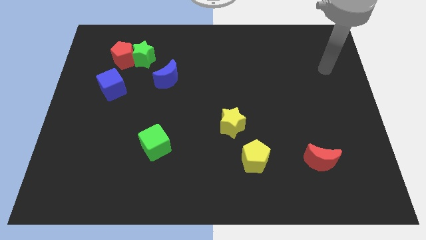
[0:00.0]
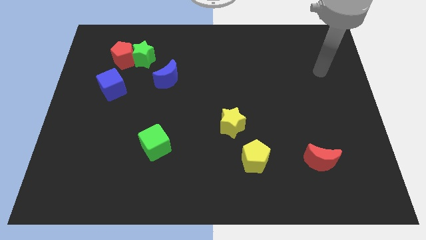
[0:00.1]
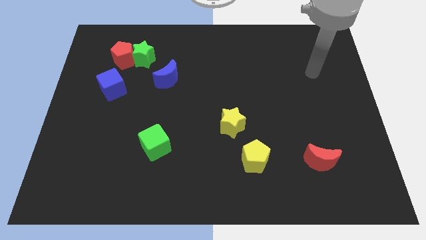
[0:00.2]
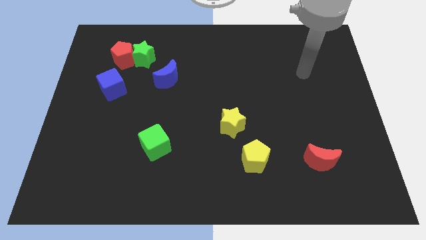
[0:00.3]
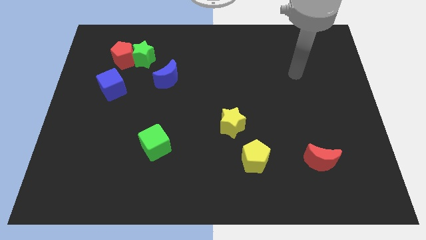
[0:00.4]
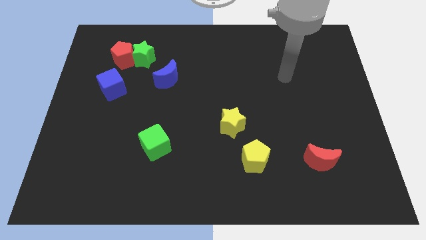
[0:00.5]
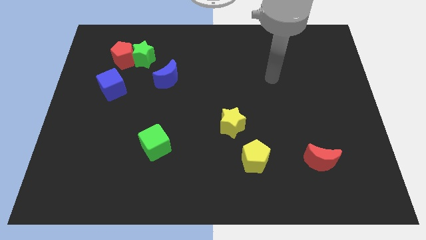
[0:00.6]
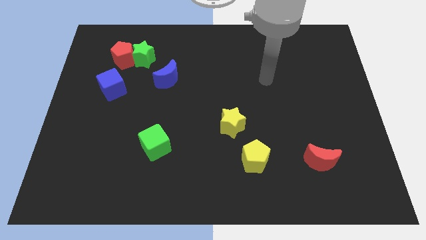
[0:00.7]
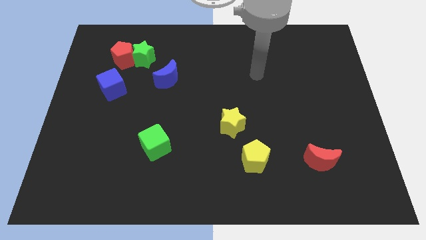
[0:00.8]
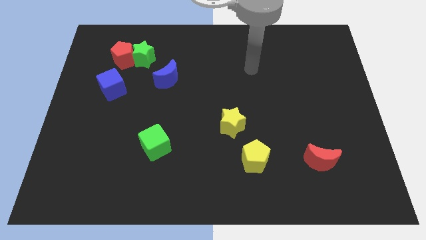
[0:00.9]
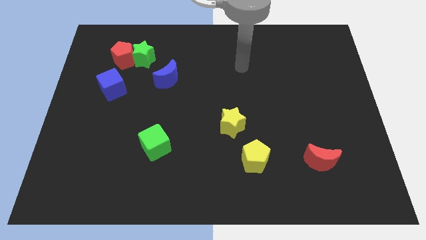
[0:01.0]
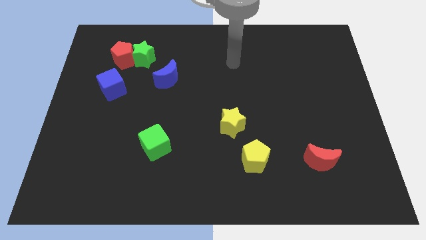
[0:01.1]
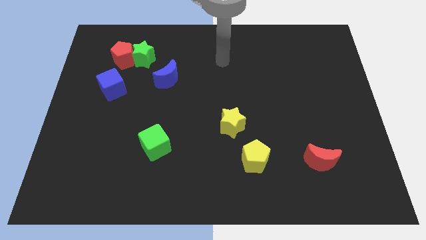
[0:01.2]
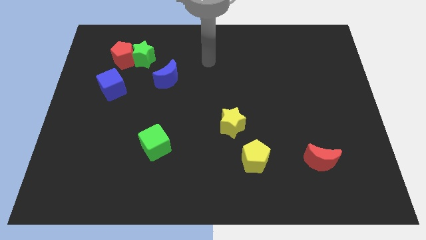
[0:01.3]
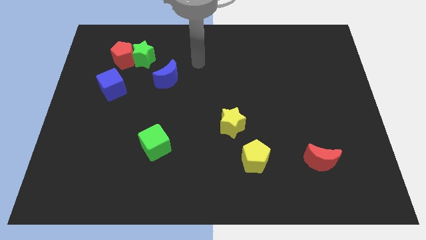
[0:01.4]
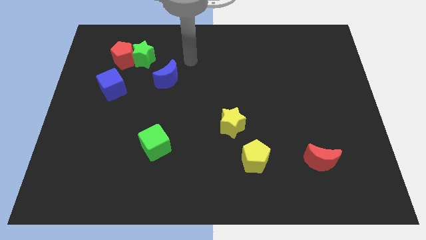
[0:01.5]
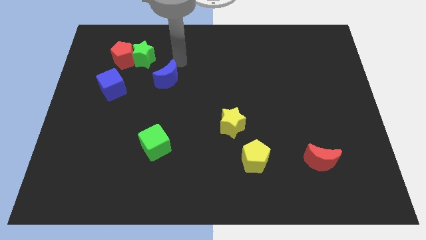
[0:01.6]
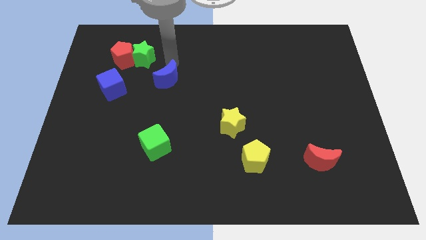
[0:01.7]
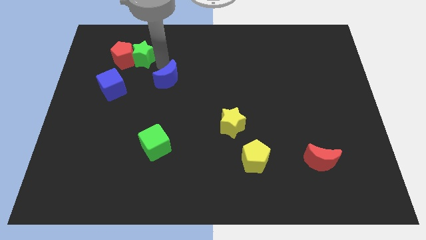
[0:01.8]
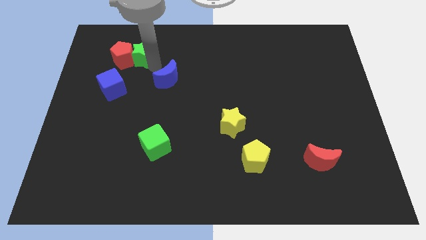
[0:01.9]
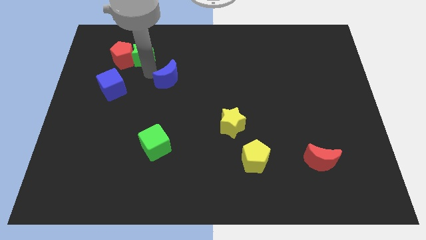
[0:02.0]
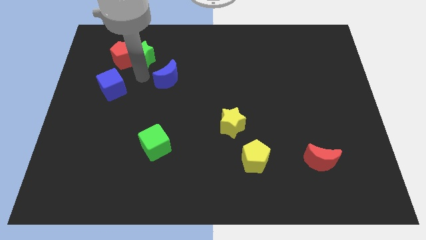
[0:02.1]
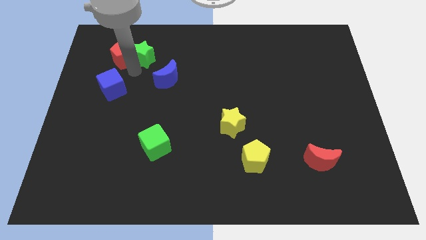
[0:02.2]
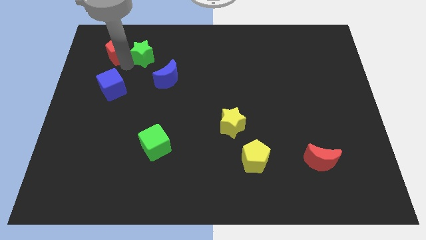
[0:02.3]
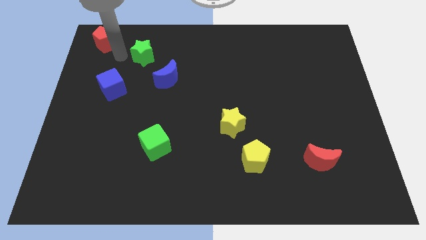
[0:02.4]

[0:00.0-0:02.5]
separate the green star from the red pentagon

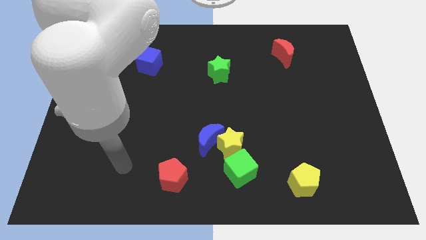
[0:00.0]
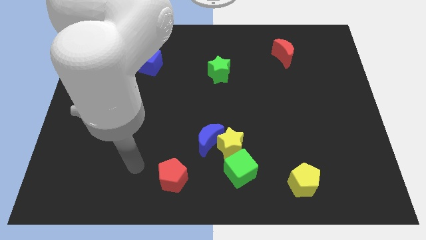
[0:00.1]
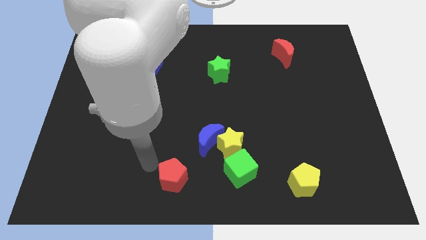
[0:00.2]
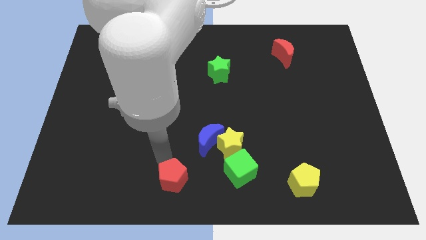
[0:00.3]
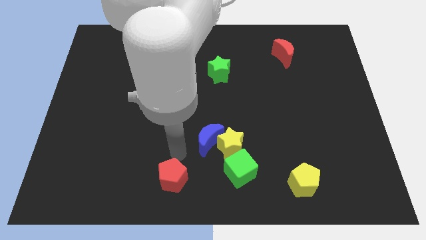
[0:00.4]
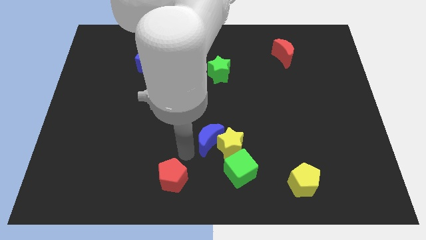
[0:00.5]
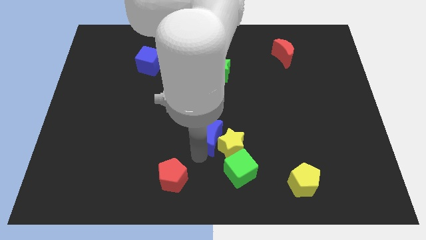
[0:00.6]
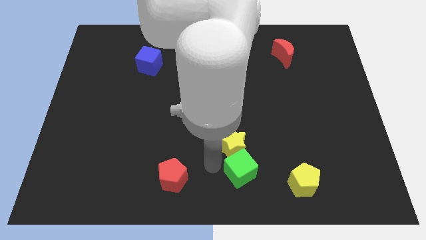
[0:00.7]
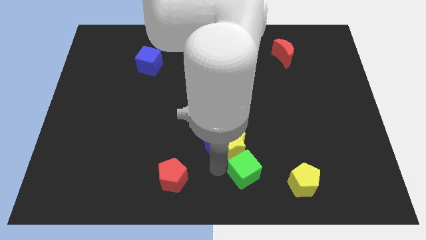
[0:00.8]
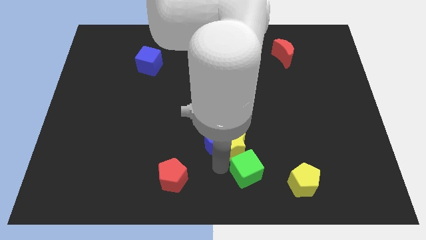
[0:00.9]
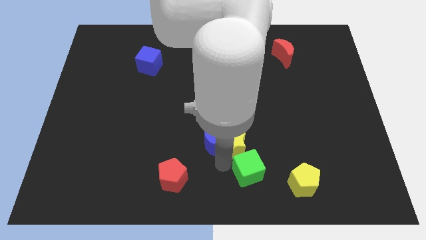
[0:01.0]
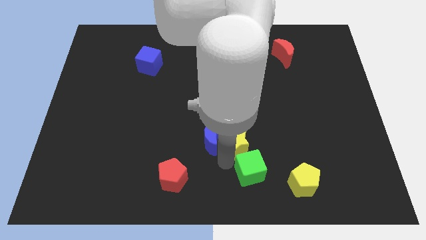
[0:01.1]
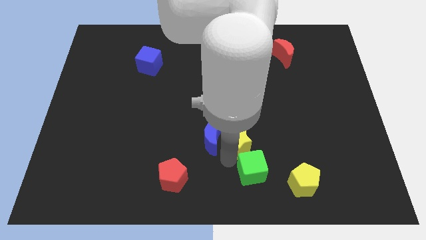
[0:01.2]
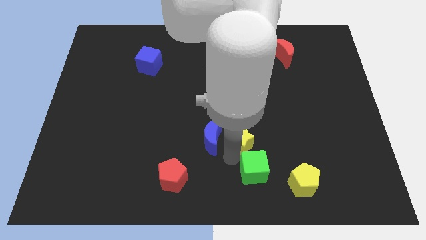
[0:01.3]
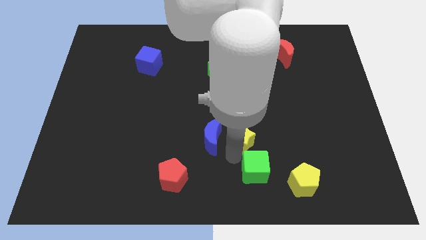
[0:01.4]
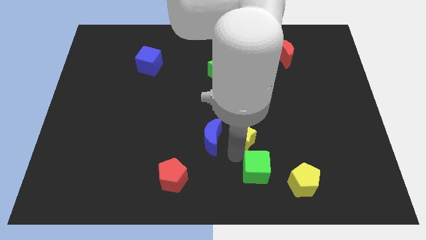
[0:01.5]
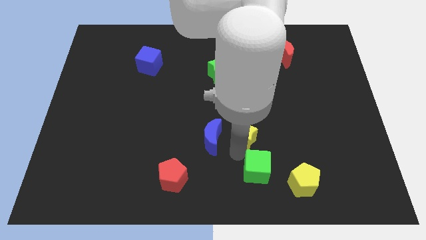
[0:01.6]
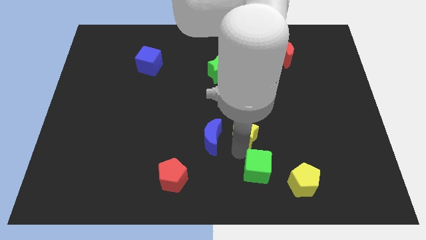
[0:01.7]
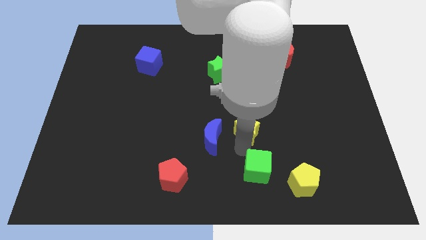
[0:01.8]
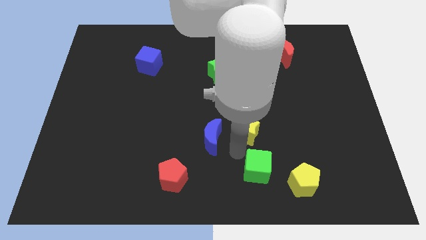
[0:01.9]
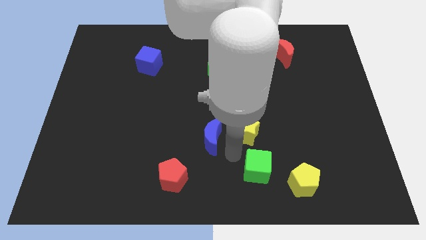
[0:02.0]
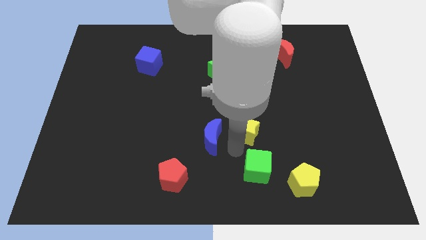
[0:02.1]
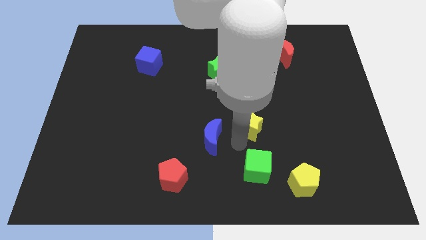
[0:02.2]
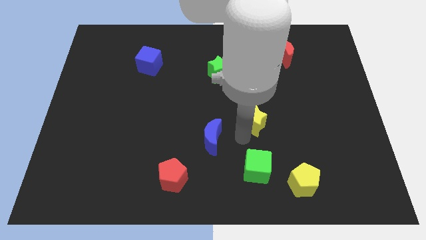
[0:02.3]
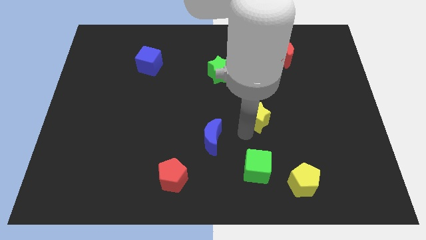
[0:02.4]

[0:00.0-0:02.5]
separate the yellow star from the blue moon and green cube

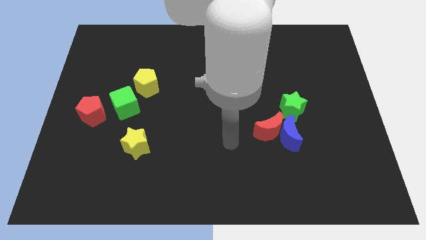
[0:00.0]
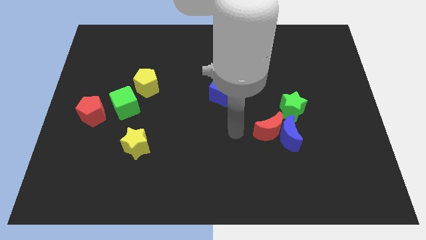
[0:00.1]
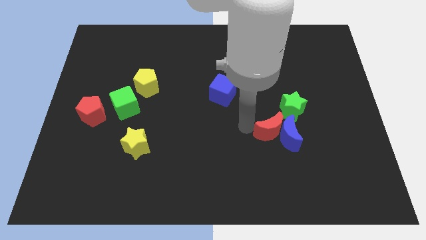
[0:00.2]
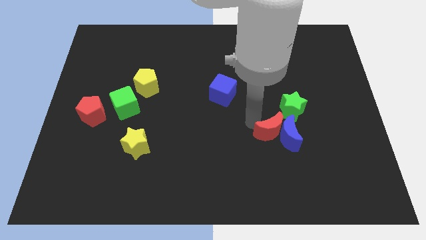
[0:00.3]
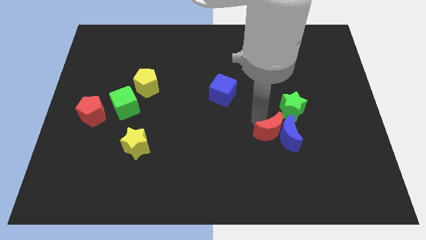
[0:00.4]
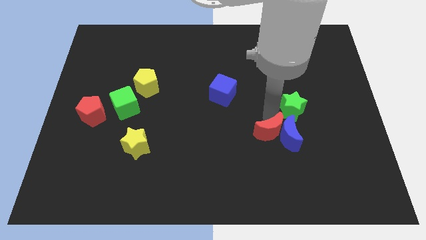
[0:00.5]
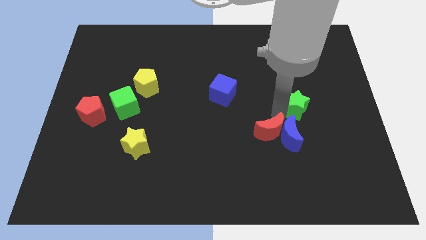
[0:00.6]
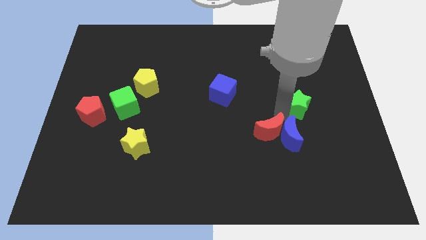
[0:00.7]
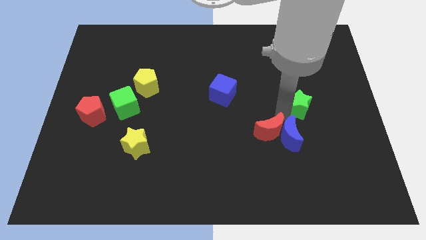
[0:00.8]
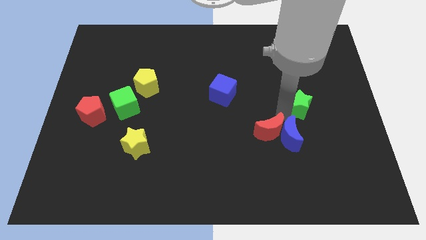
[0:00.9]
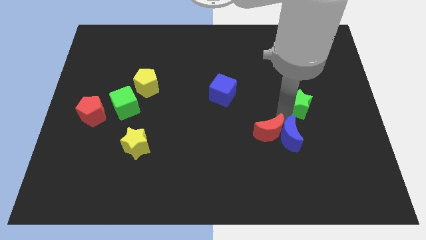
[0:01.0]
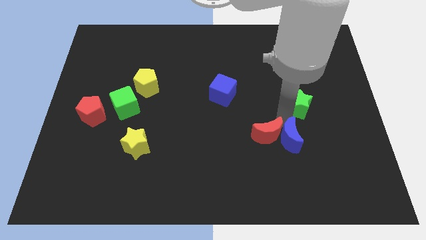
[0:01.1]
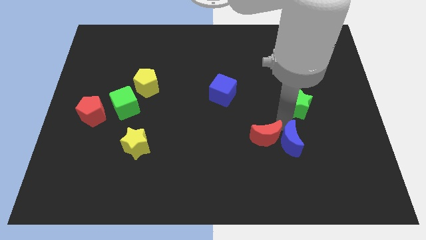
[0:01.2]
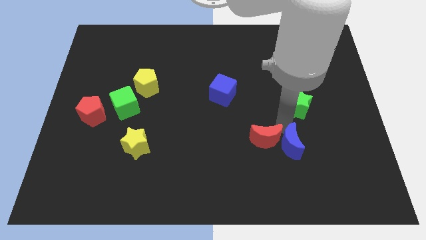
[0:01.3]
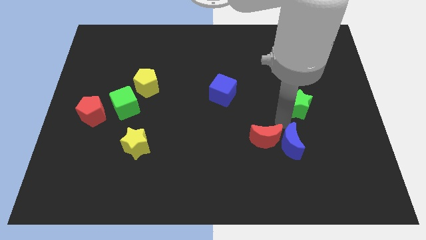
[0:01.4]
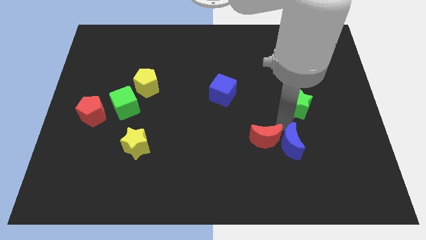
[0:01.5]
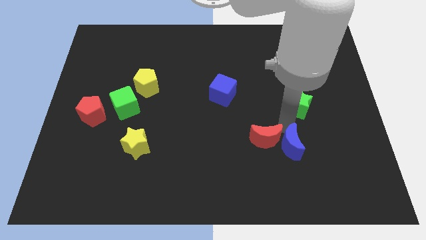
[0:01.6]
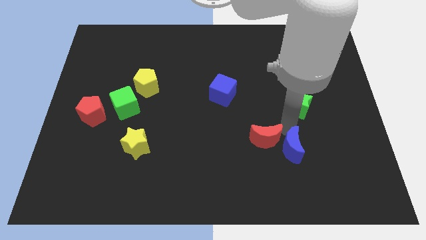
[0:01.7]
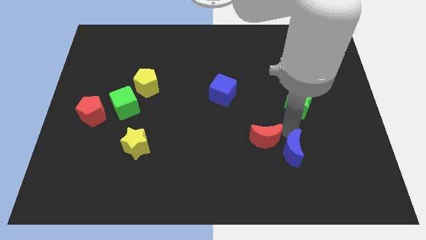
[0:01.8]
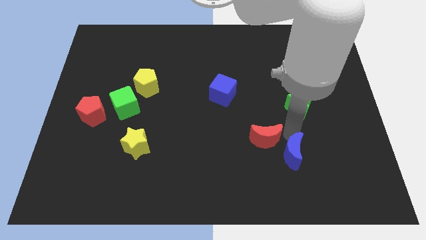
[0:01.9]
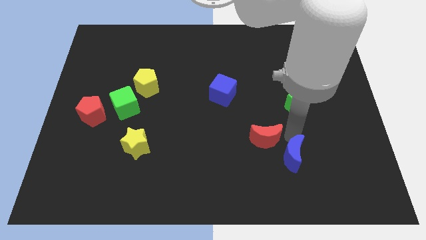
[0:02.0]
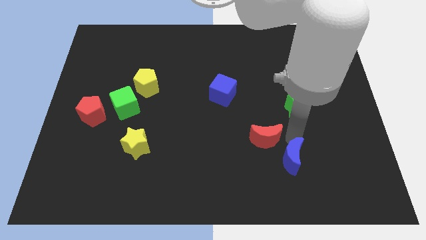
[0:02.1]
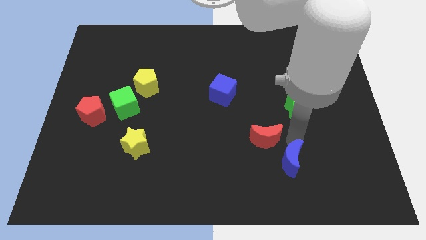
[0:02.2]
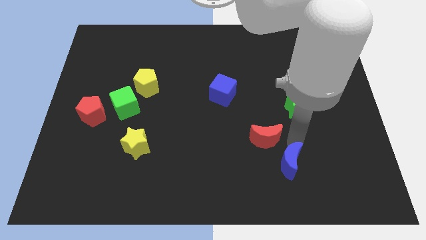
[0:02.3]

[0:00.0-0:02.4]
separate the blue moon from the red moon and green star

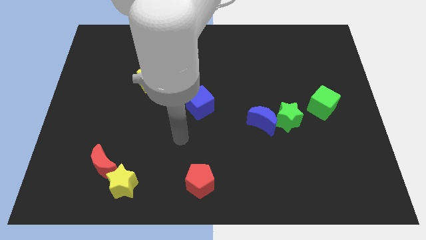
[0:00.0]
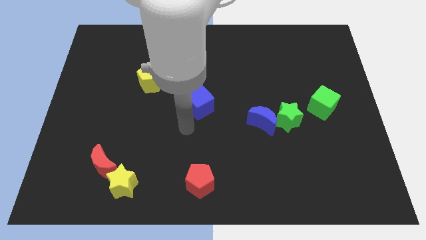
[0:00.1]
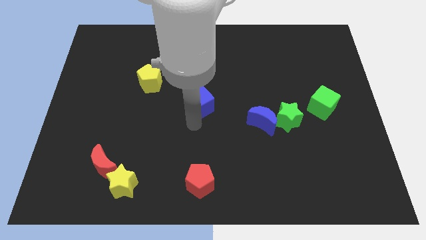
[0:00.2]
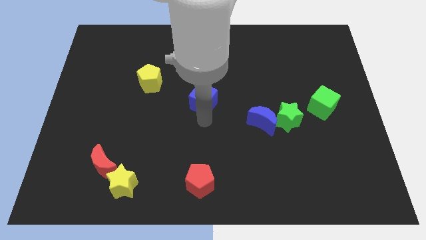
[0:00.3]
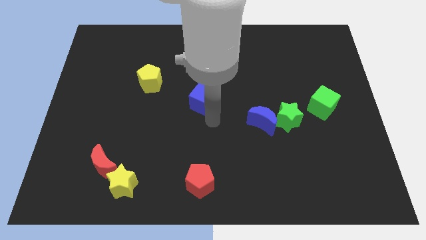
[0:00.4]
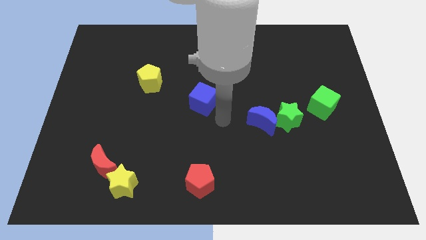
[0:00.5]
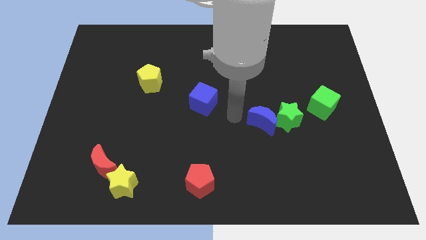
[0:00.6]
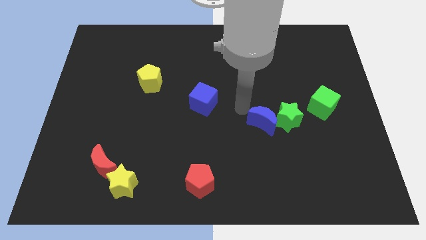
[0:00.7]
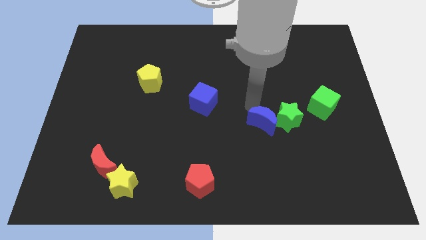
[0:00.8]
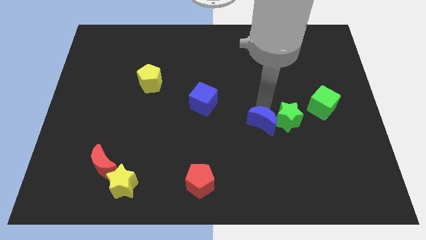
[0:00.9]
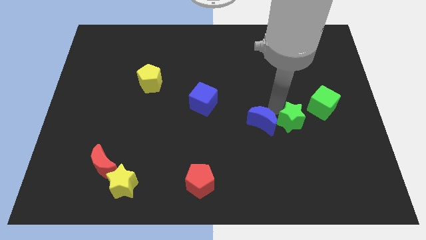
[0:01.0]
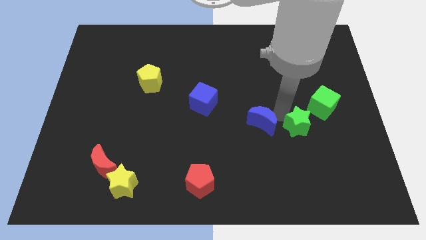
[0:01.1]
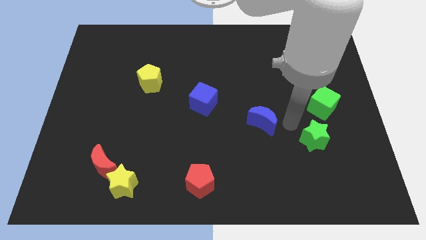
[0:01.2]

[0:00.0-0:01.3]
separate the blue moon from the green star

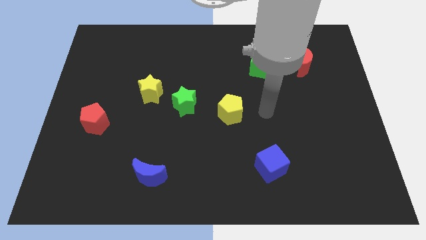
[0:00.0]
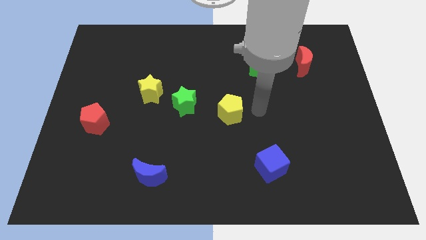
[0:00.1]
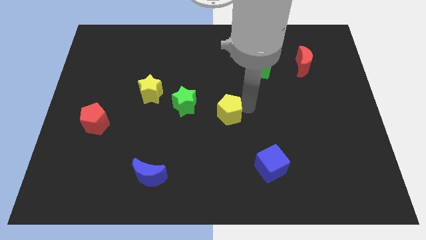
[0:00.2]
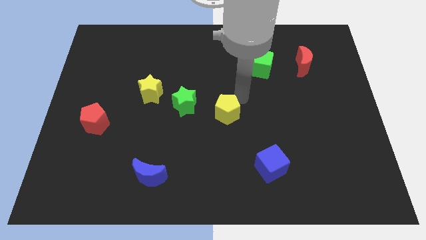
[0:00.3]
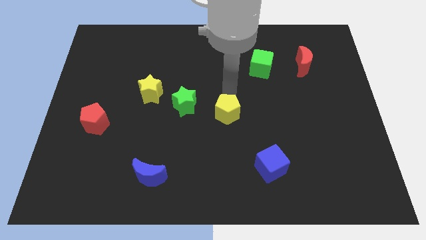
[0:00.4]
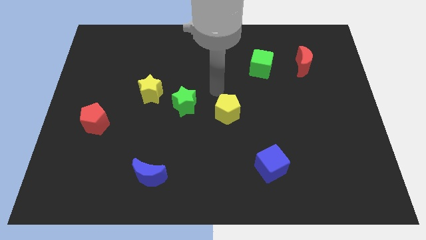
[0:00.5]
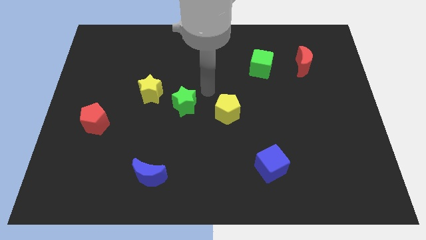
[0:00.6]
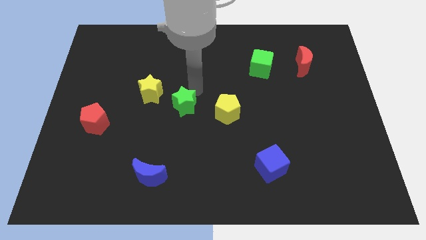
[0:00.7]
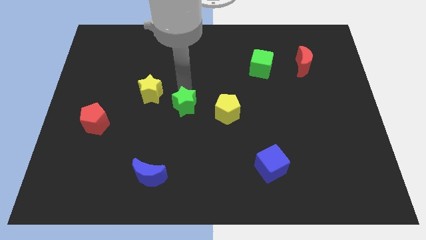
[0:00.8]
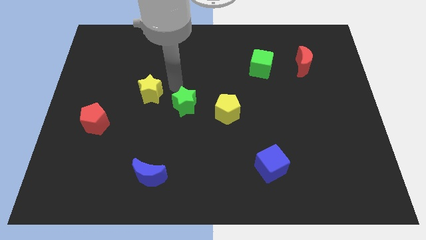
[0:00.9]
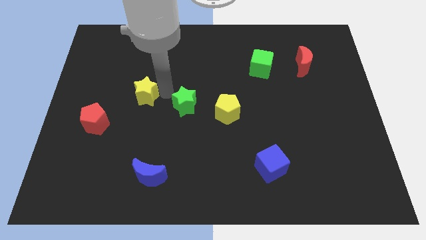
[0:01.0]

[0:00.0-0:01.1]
separate the green star from the yellow star
